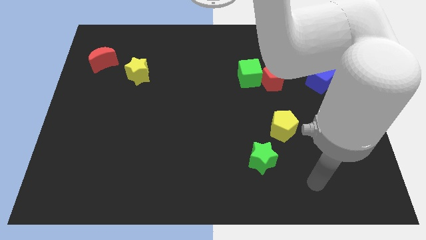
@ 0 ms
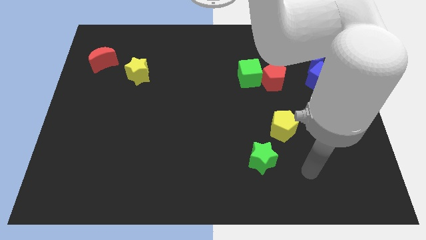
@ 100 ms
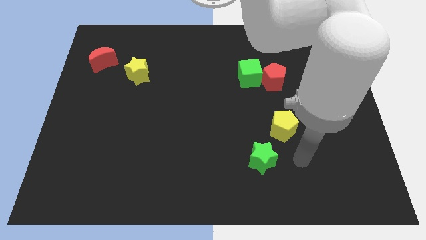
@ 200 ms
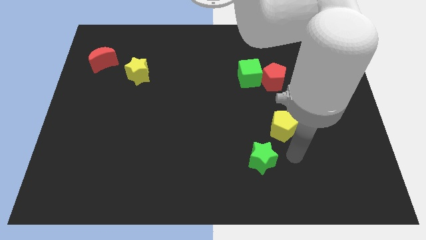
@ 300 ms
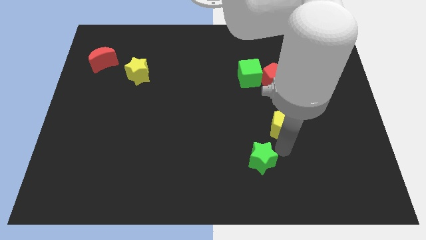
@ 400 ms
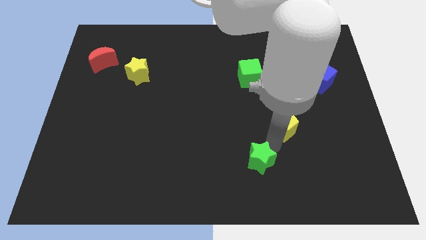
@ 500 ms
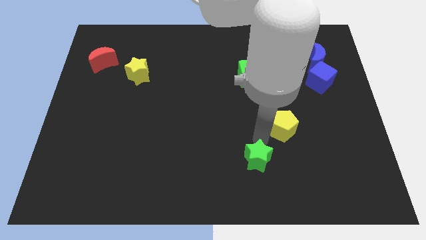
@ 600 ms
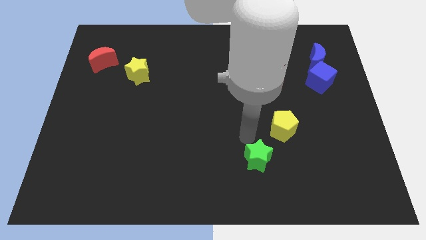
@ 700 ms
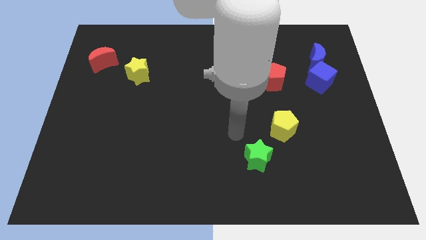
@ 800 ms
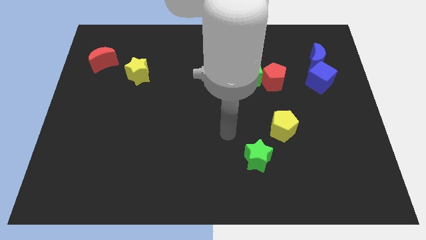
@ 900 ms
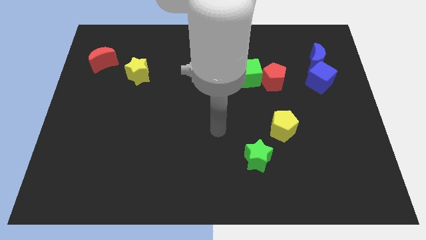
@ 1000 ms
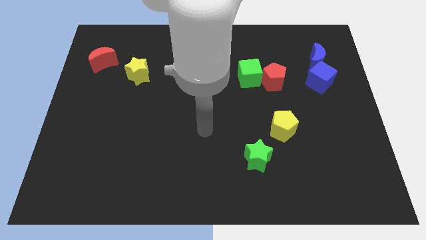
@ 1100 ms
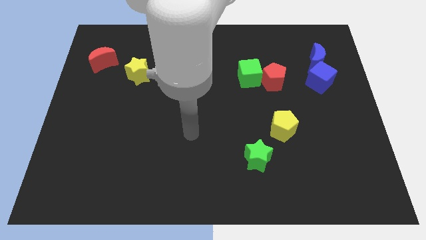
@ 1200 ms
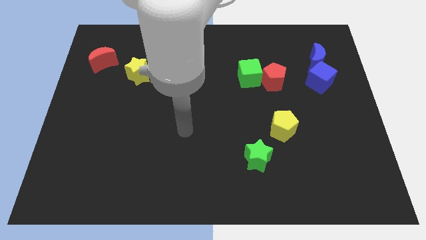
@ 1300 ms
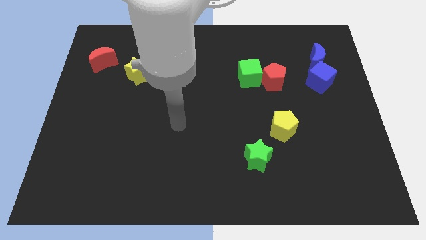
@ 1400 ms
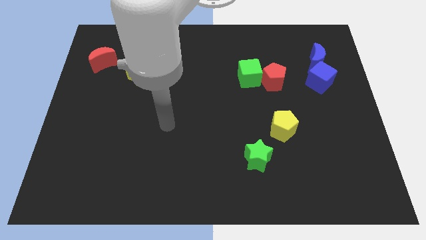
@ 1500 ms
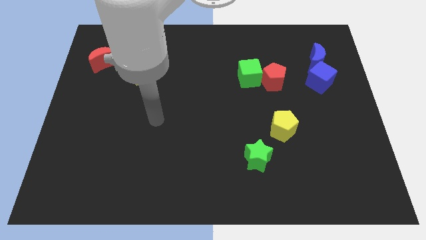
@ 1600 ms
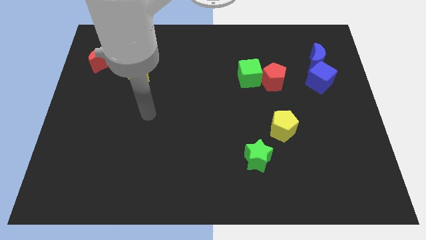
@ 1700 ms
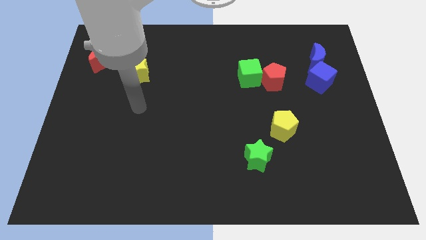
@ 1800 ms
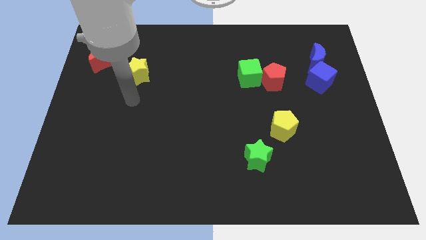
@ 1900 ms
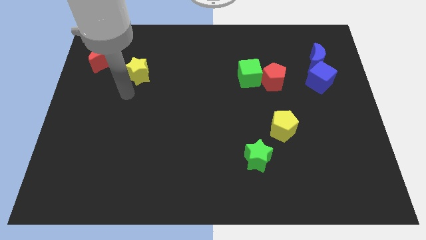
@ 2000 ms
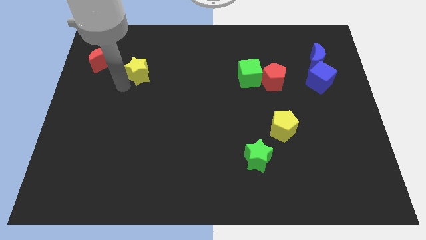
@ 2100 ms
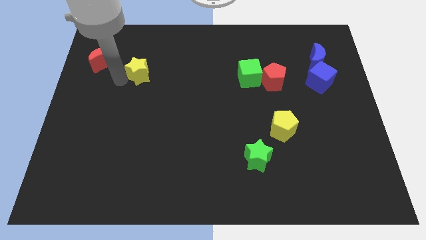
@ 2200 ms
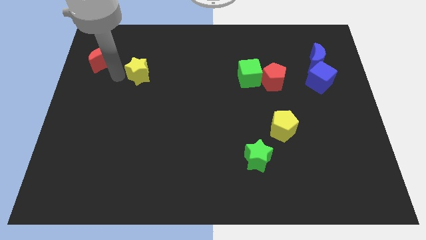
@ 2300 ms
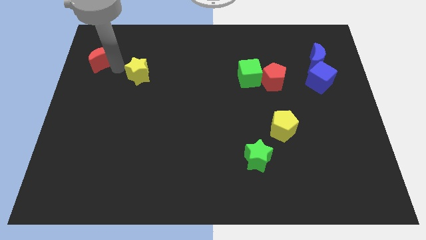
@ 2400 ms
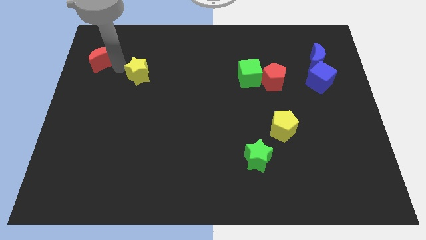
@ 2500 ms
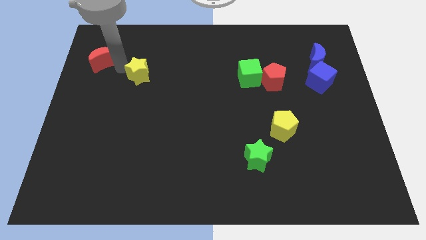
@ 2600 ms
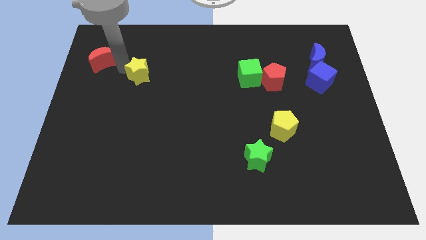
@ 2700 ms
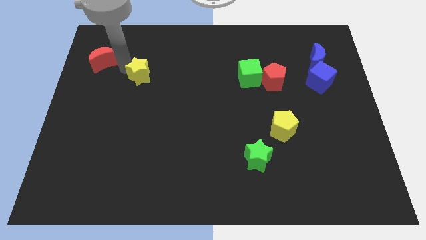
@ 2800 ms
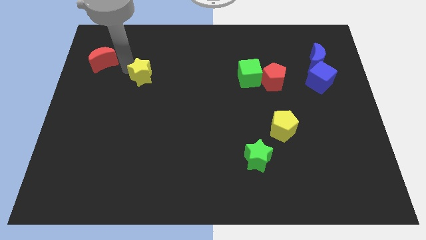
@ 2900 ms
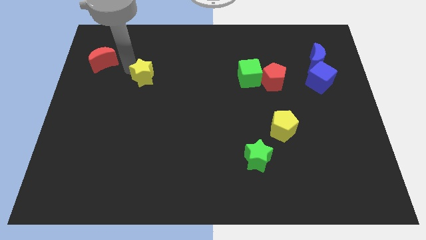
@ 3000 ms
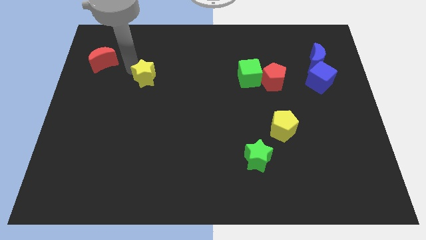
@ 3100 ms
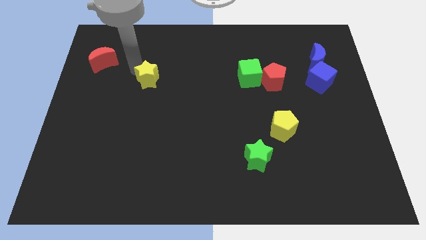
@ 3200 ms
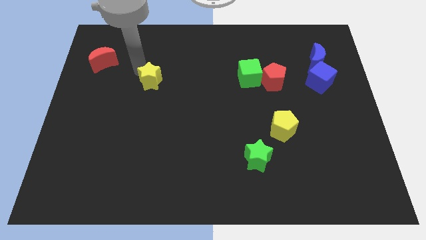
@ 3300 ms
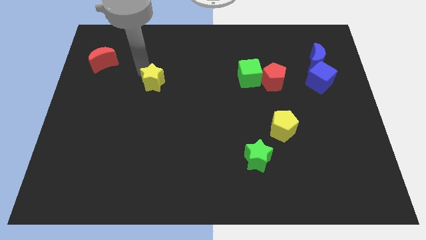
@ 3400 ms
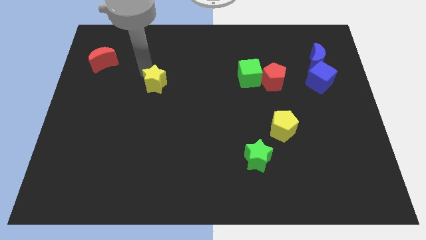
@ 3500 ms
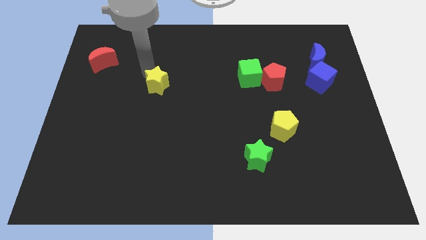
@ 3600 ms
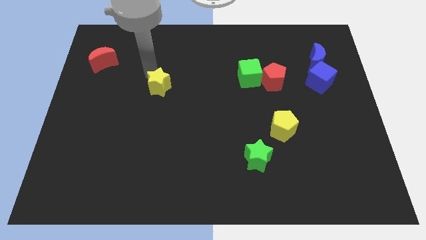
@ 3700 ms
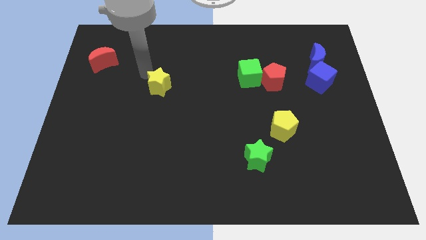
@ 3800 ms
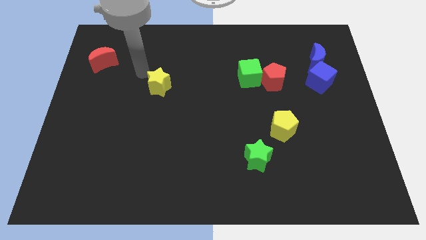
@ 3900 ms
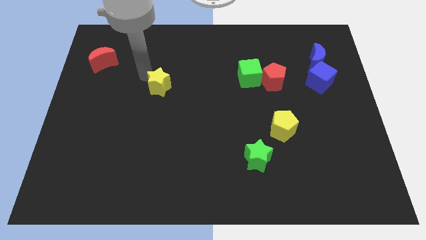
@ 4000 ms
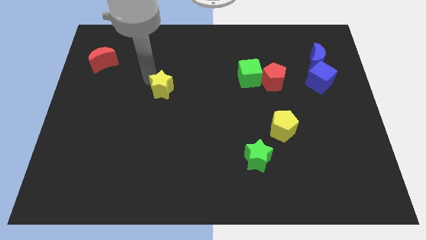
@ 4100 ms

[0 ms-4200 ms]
slightly slide the yellow star downwards and then right

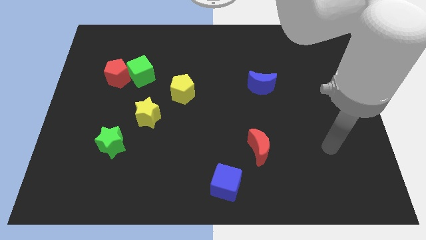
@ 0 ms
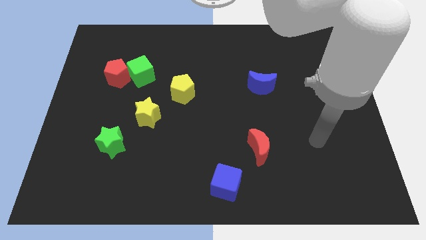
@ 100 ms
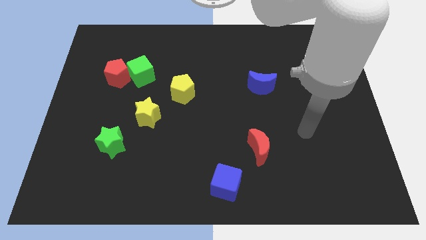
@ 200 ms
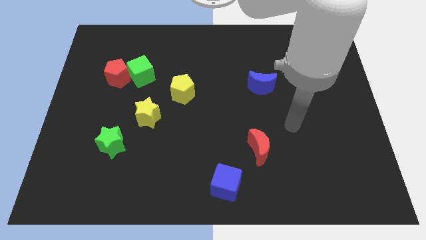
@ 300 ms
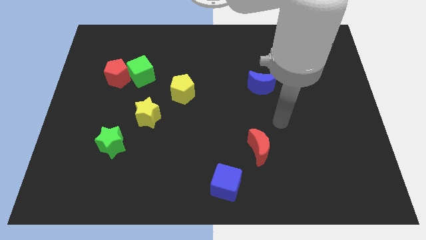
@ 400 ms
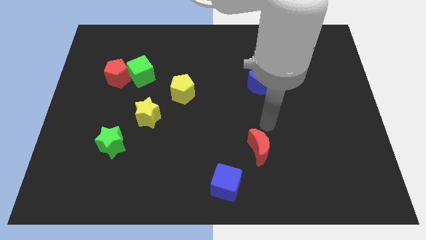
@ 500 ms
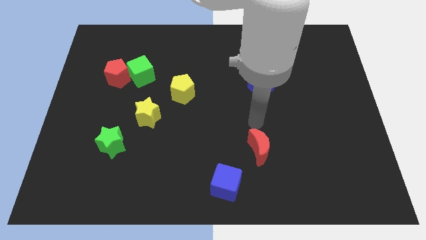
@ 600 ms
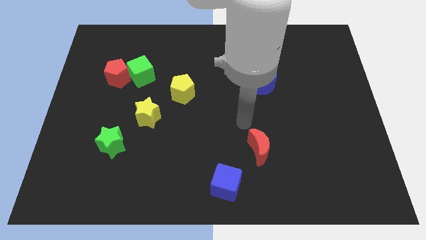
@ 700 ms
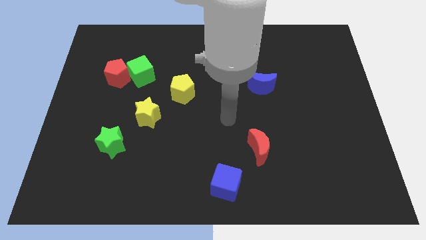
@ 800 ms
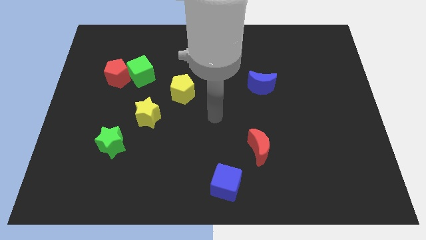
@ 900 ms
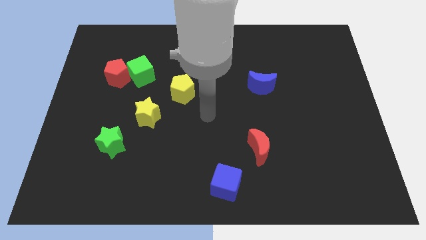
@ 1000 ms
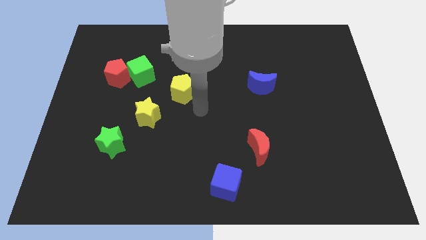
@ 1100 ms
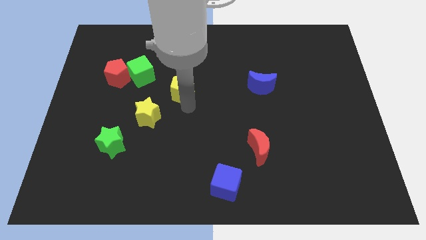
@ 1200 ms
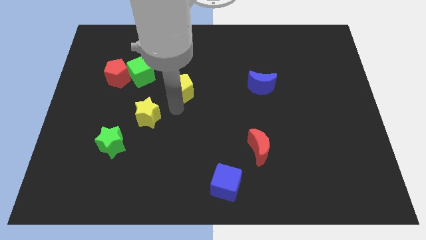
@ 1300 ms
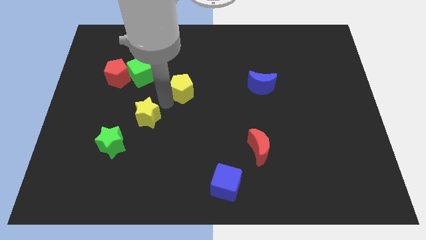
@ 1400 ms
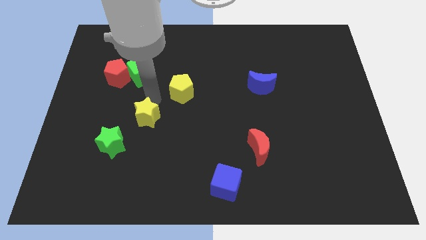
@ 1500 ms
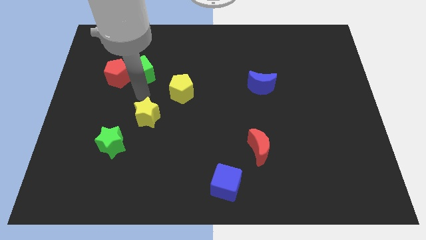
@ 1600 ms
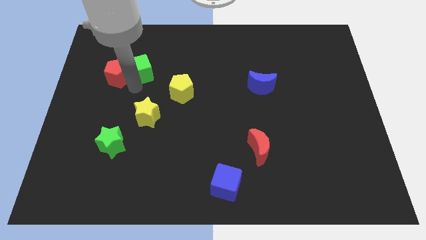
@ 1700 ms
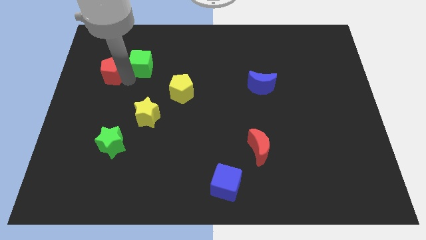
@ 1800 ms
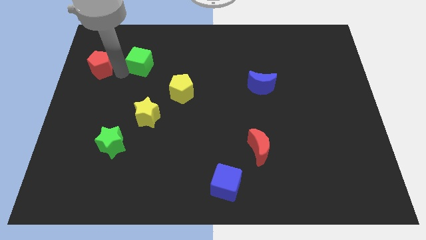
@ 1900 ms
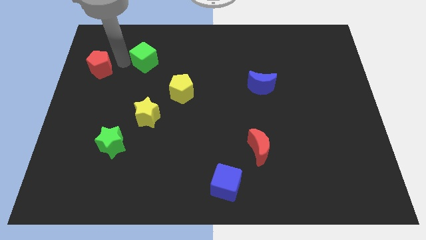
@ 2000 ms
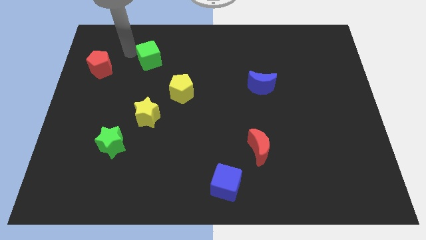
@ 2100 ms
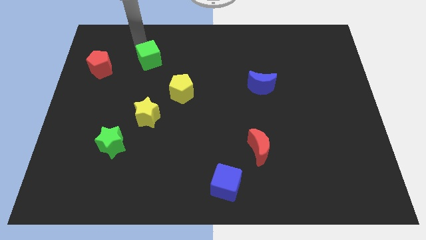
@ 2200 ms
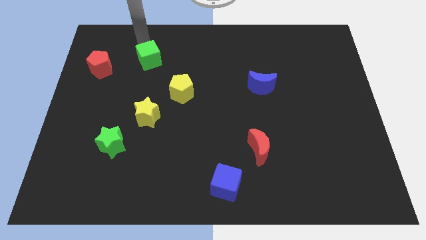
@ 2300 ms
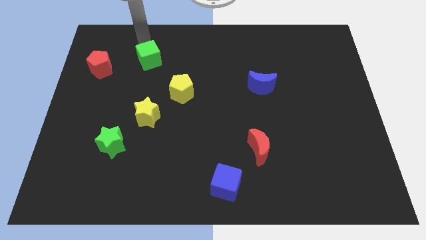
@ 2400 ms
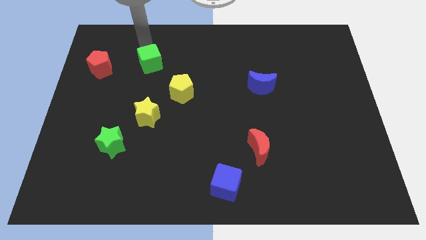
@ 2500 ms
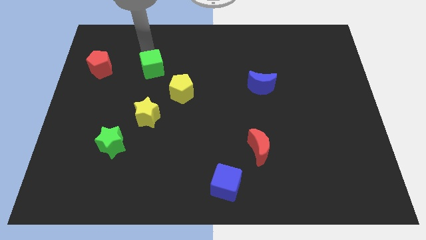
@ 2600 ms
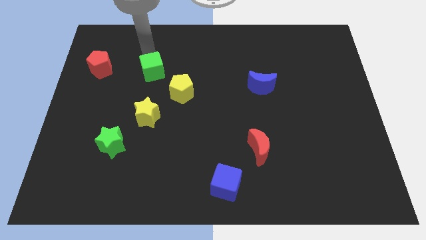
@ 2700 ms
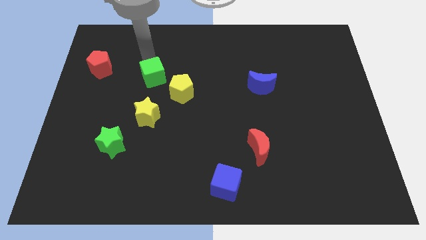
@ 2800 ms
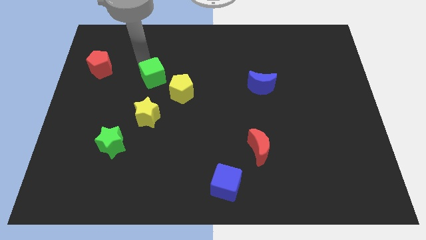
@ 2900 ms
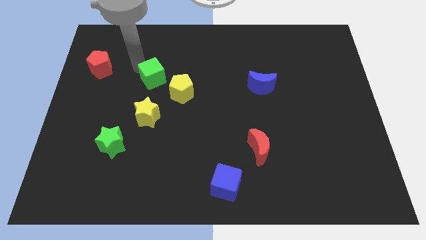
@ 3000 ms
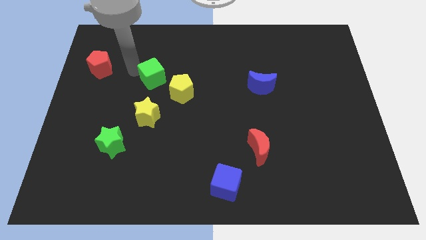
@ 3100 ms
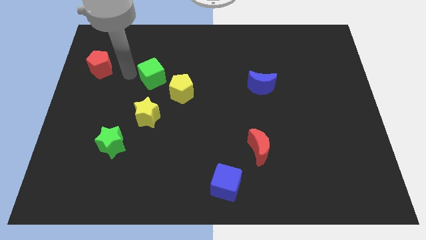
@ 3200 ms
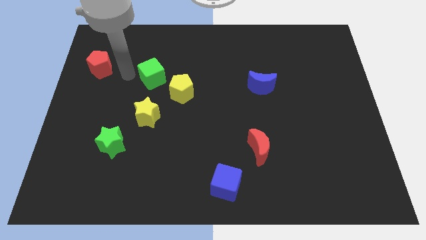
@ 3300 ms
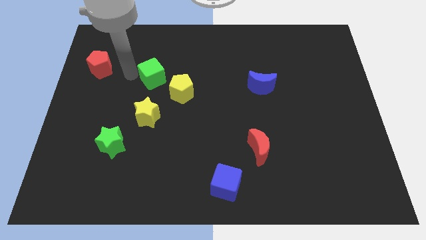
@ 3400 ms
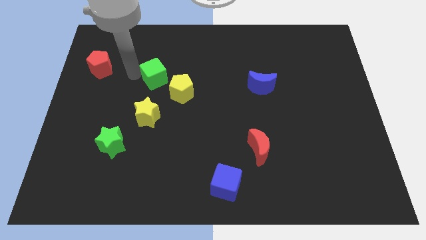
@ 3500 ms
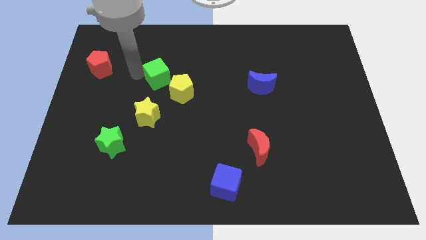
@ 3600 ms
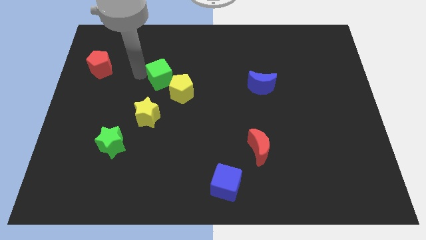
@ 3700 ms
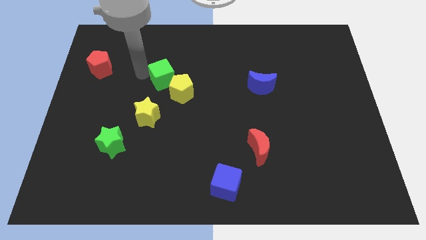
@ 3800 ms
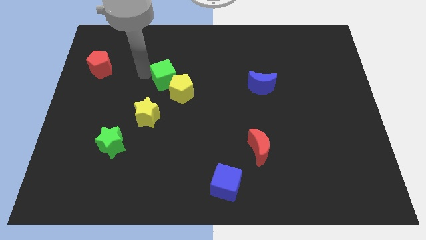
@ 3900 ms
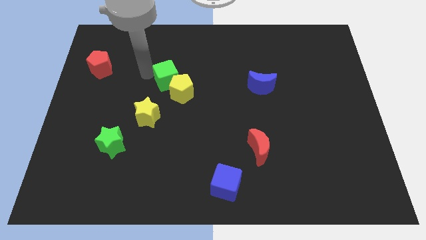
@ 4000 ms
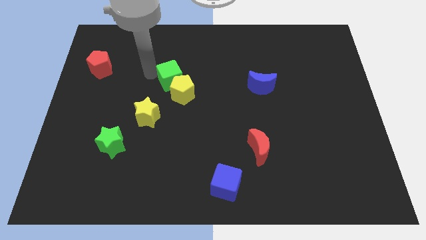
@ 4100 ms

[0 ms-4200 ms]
slightly push the green cube right
